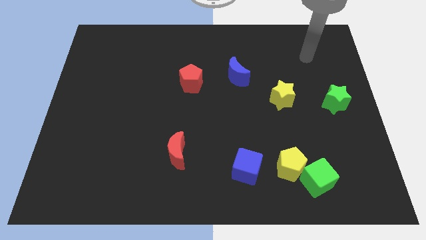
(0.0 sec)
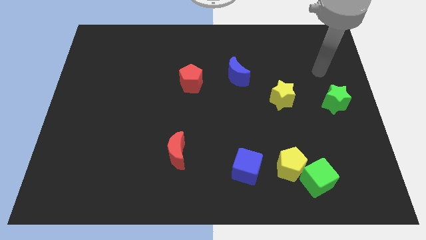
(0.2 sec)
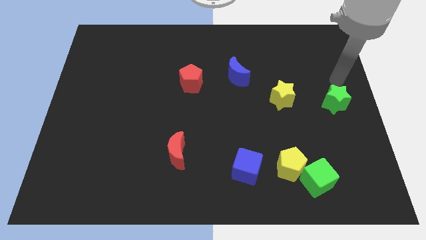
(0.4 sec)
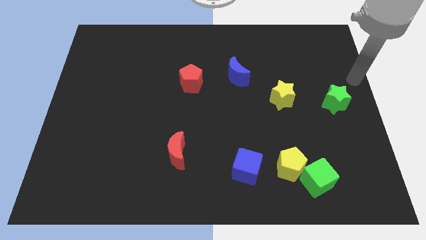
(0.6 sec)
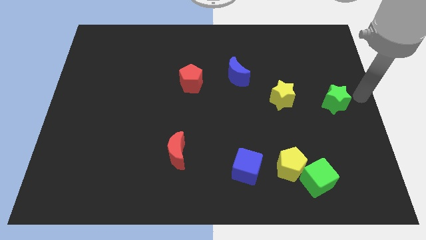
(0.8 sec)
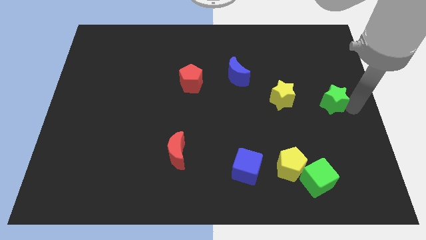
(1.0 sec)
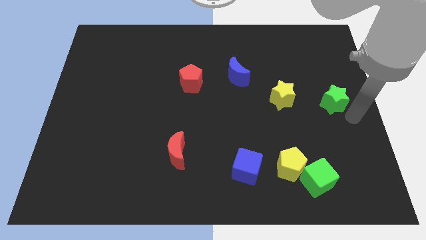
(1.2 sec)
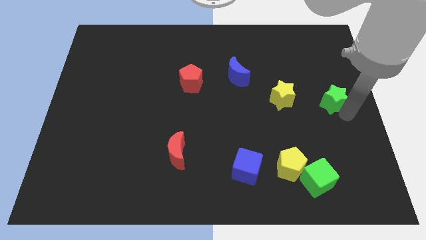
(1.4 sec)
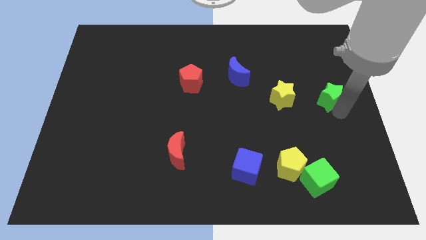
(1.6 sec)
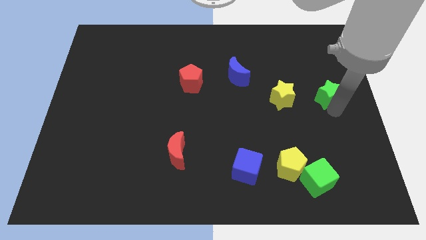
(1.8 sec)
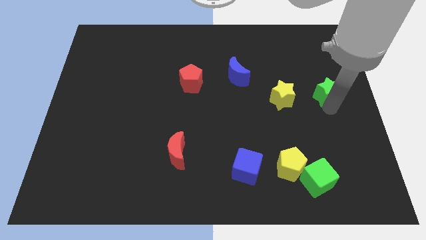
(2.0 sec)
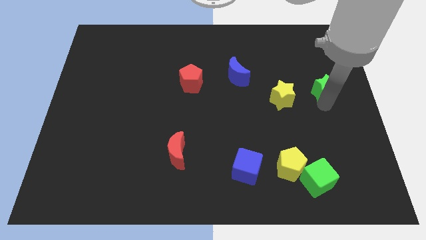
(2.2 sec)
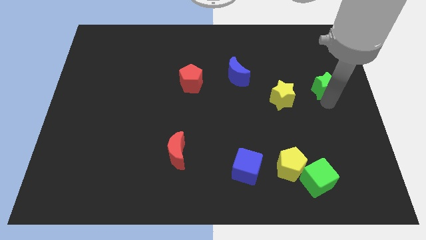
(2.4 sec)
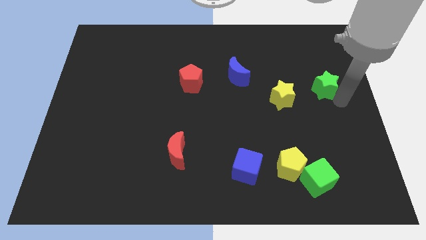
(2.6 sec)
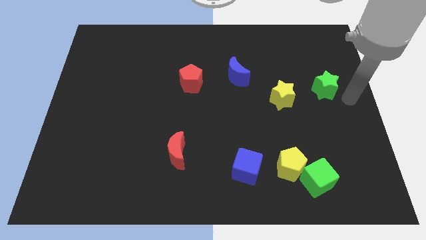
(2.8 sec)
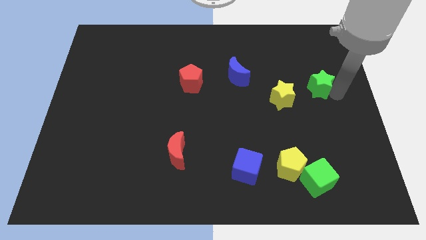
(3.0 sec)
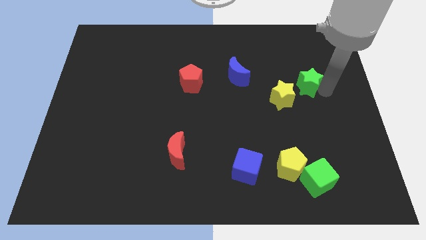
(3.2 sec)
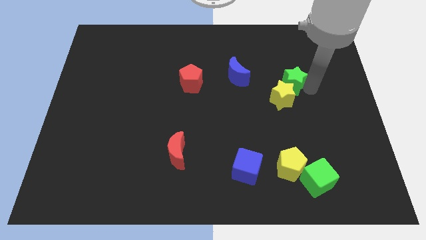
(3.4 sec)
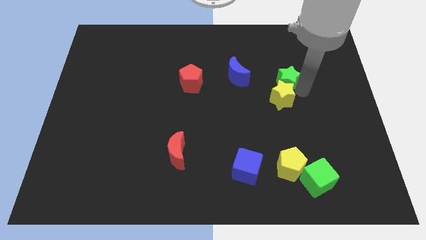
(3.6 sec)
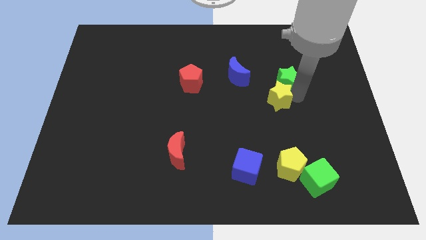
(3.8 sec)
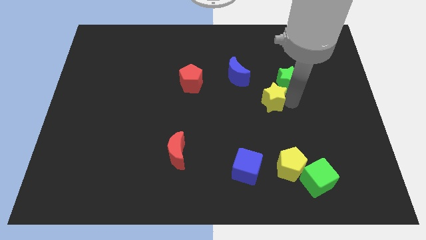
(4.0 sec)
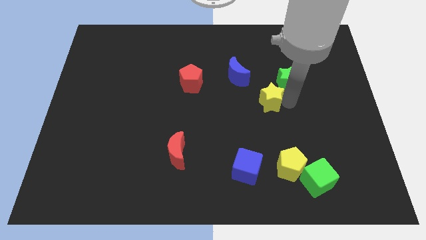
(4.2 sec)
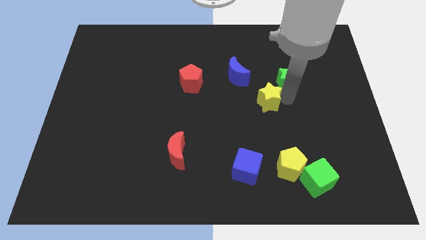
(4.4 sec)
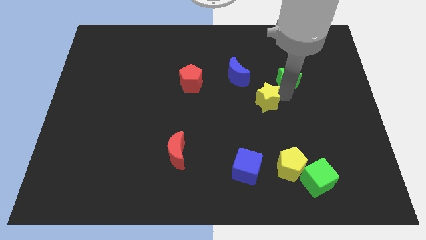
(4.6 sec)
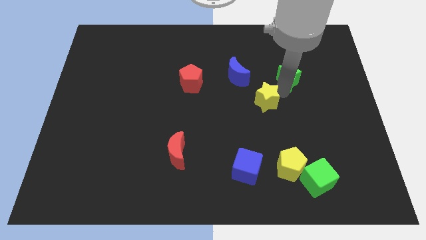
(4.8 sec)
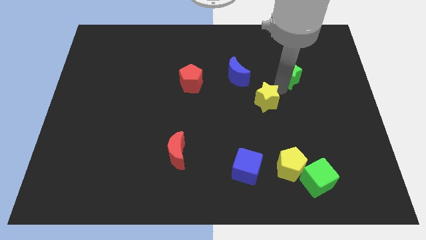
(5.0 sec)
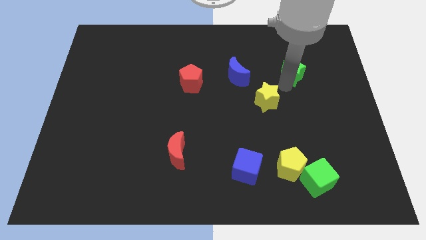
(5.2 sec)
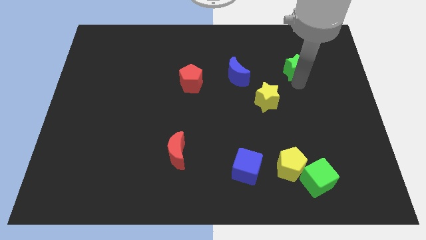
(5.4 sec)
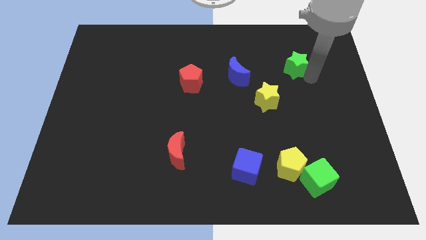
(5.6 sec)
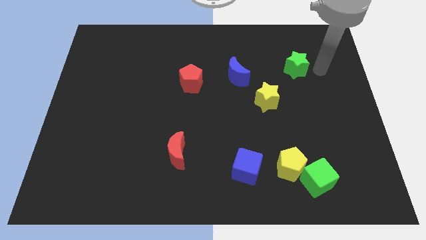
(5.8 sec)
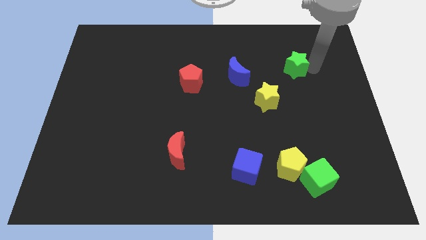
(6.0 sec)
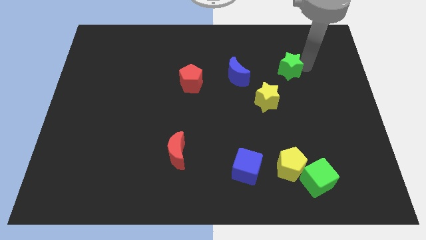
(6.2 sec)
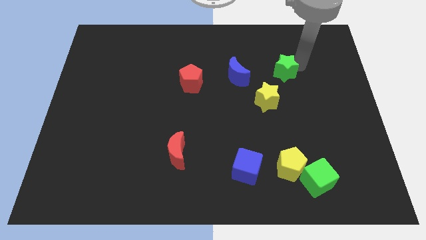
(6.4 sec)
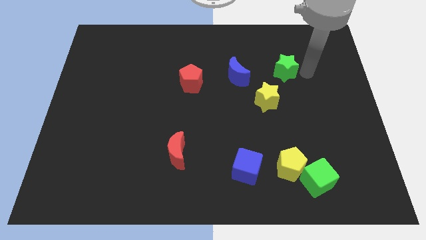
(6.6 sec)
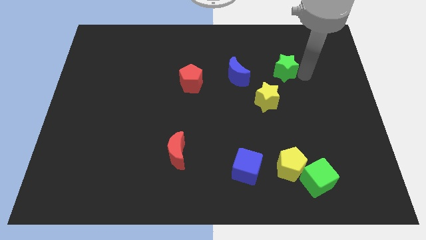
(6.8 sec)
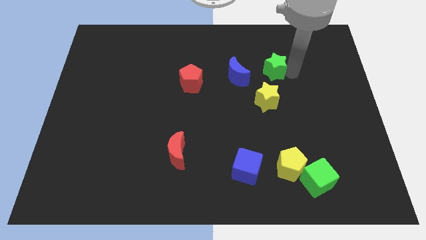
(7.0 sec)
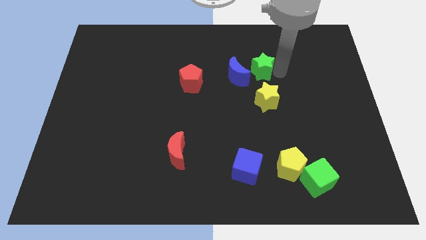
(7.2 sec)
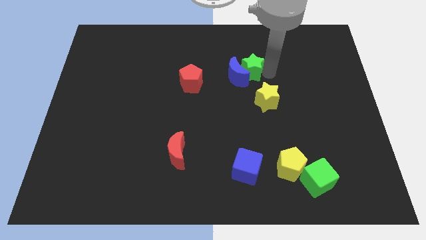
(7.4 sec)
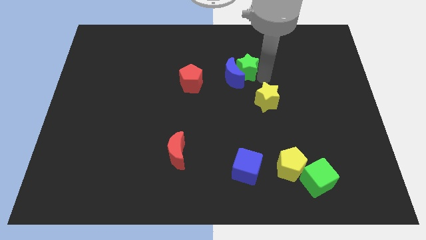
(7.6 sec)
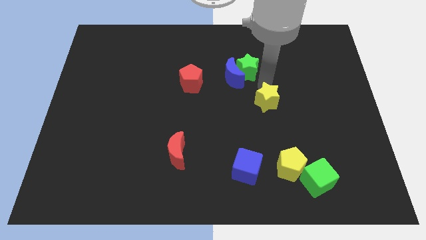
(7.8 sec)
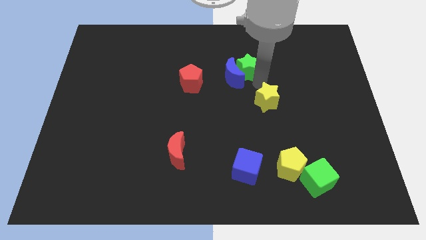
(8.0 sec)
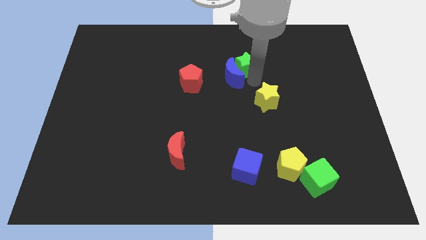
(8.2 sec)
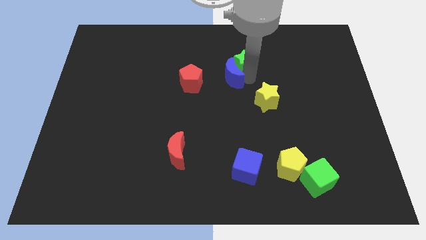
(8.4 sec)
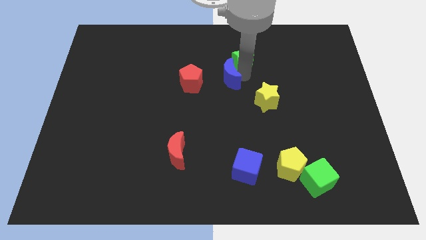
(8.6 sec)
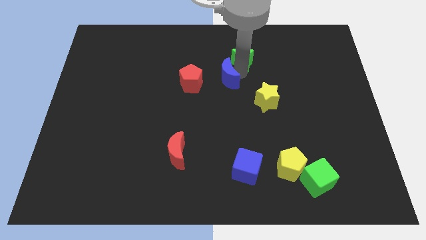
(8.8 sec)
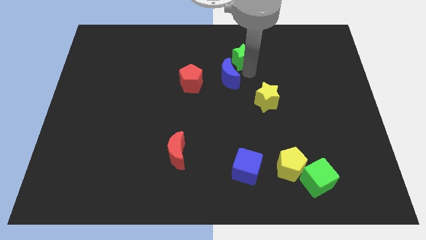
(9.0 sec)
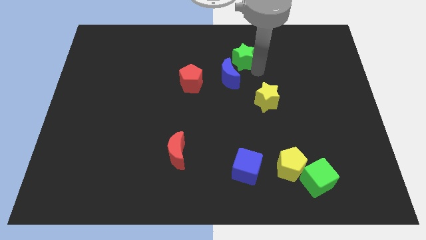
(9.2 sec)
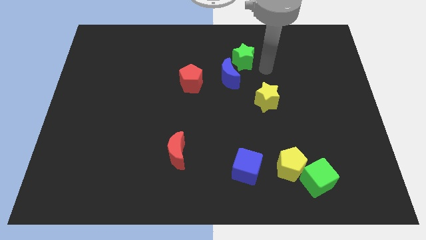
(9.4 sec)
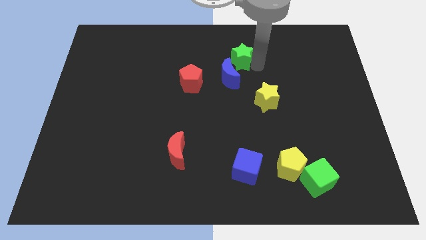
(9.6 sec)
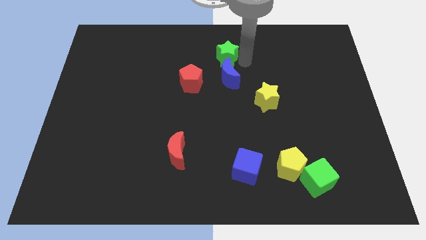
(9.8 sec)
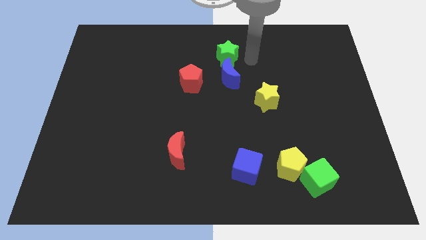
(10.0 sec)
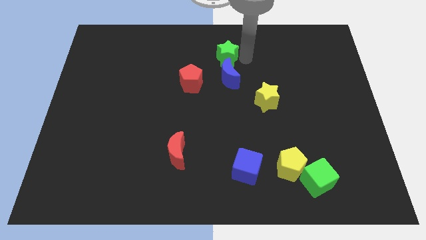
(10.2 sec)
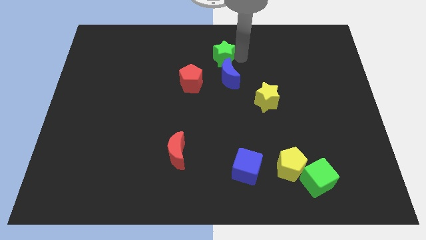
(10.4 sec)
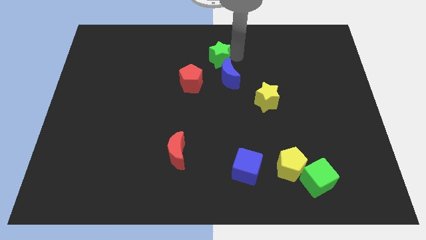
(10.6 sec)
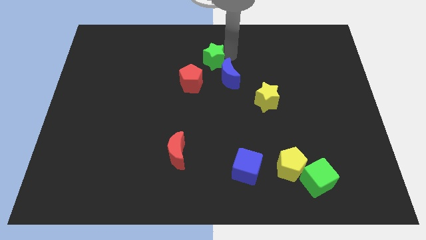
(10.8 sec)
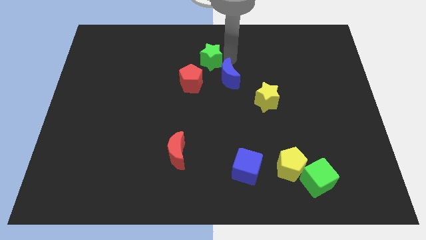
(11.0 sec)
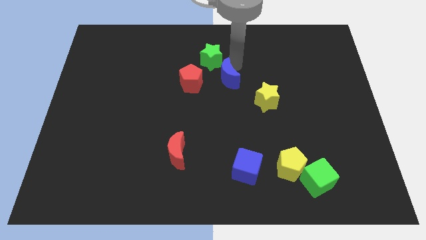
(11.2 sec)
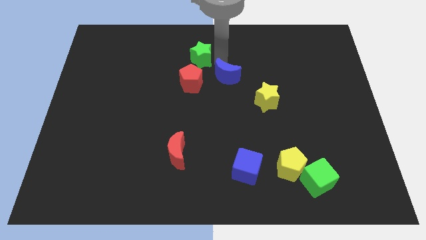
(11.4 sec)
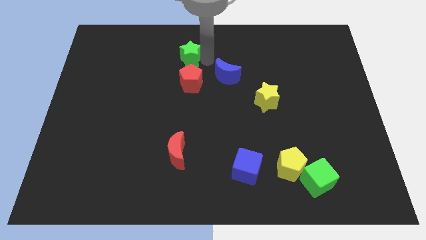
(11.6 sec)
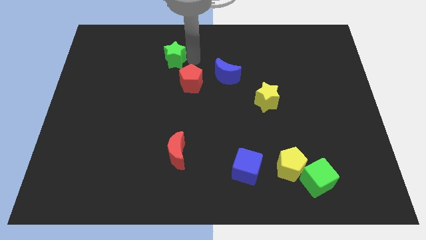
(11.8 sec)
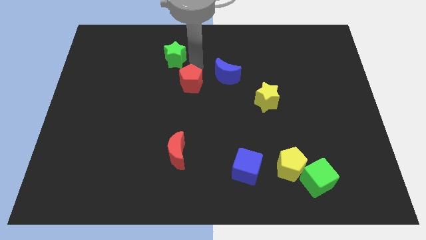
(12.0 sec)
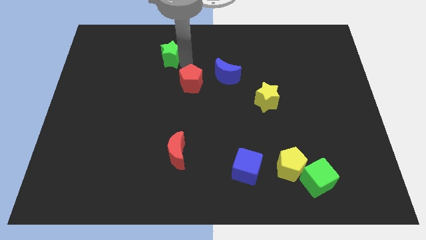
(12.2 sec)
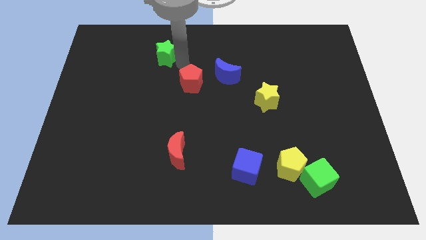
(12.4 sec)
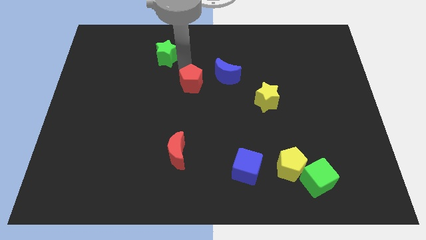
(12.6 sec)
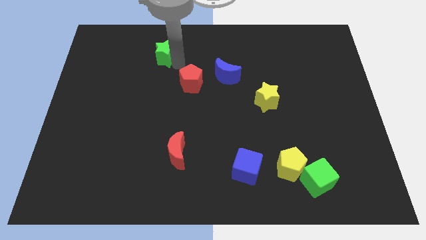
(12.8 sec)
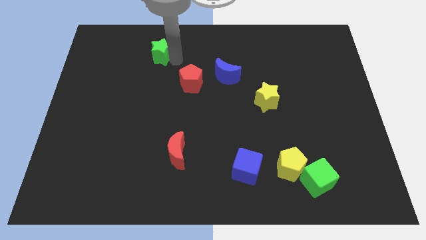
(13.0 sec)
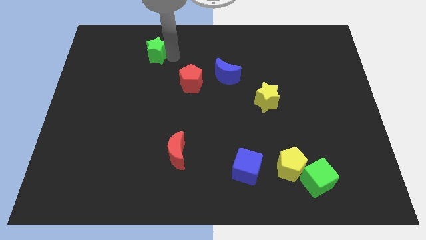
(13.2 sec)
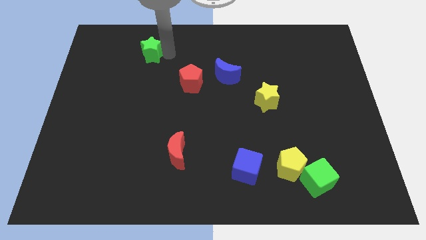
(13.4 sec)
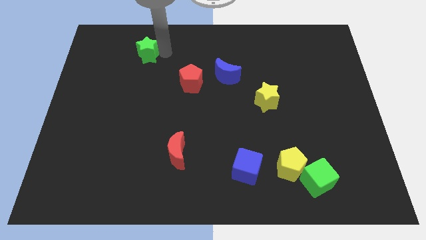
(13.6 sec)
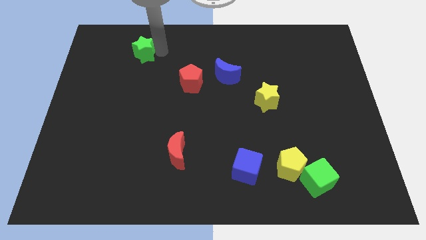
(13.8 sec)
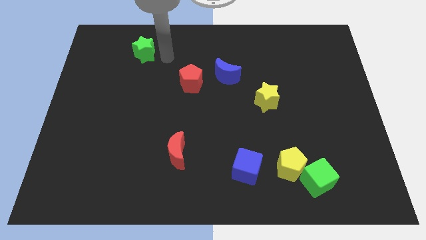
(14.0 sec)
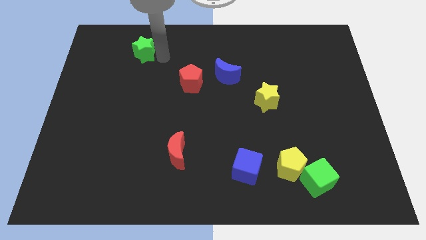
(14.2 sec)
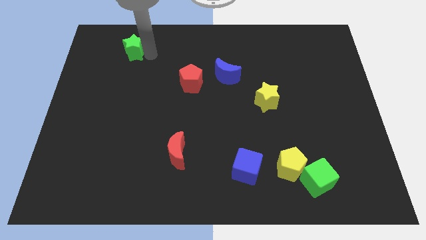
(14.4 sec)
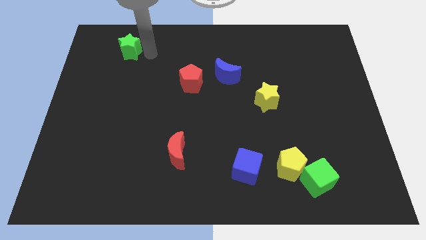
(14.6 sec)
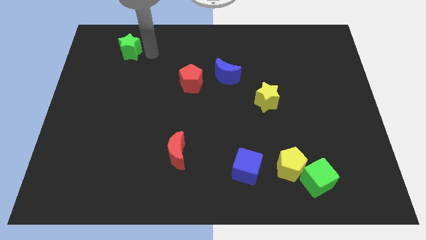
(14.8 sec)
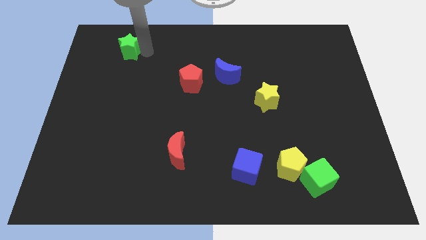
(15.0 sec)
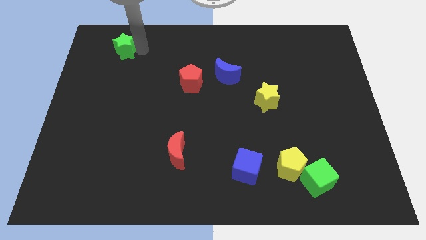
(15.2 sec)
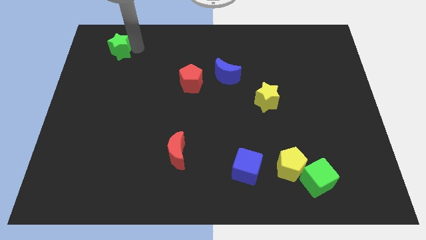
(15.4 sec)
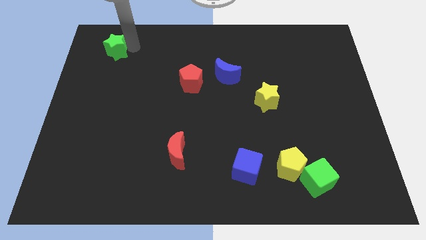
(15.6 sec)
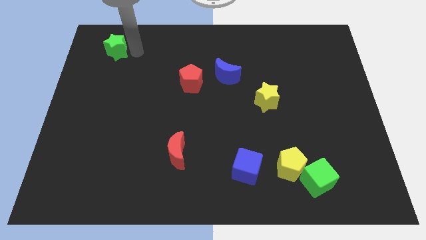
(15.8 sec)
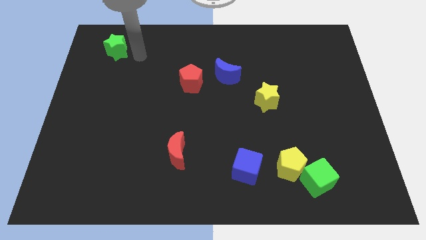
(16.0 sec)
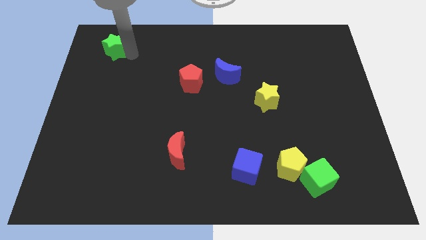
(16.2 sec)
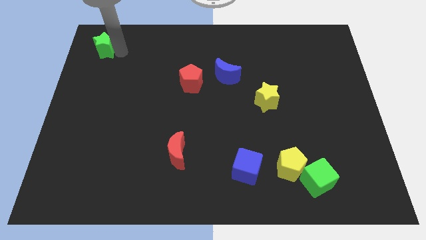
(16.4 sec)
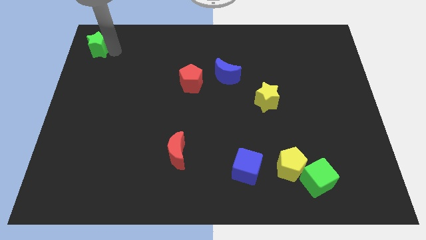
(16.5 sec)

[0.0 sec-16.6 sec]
push the green star to the top left of the board
